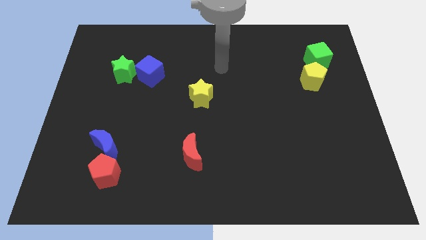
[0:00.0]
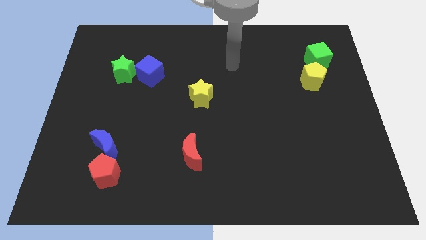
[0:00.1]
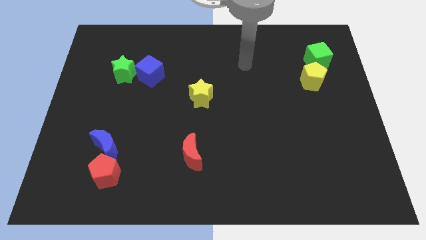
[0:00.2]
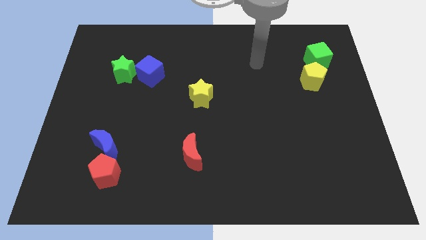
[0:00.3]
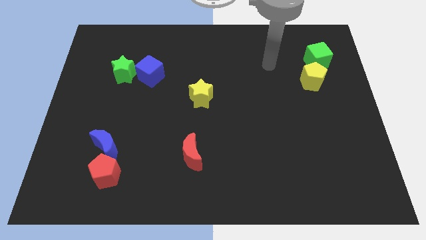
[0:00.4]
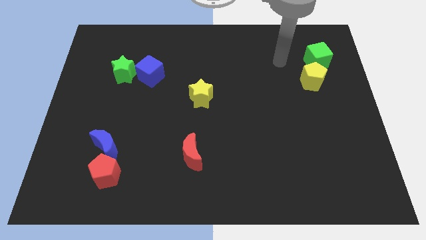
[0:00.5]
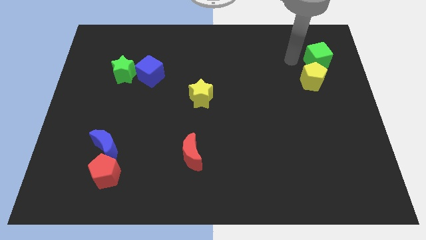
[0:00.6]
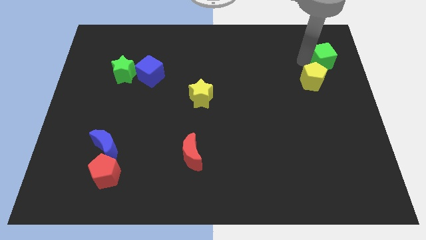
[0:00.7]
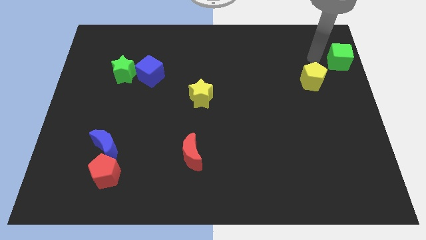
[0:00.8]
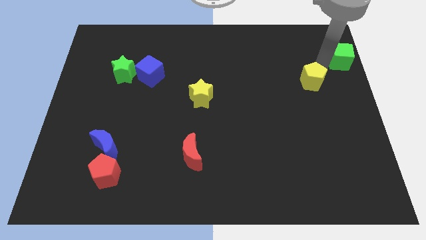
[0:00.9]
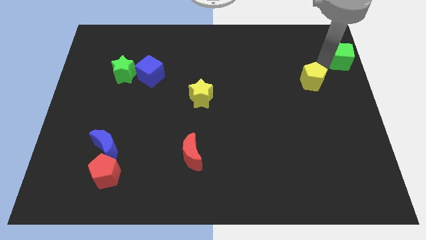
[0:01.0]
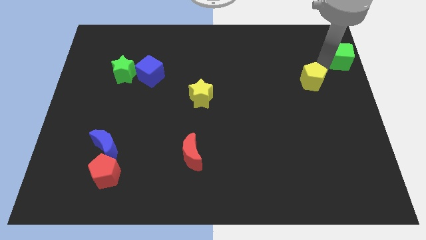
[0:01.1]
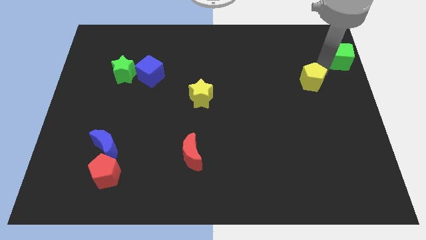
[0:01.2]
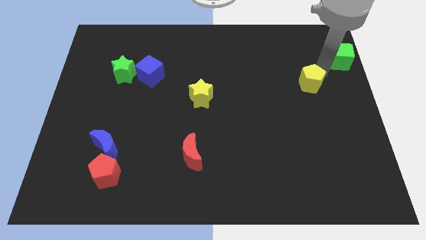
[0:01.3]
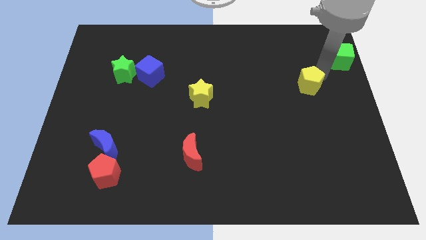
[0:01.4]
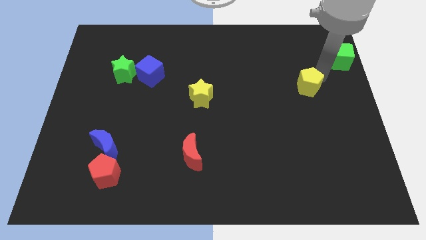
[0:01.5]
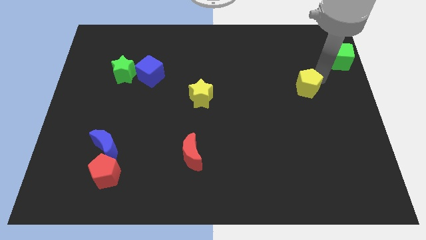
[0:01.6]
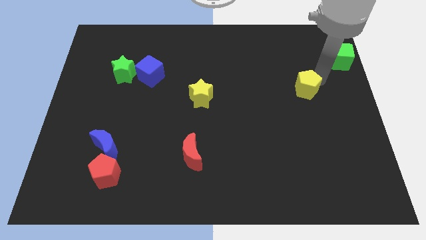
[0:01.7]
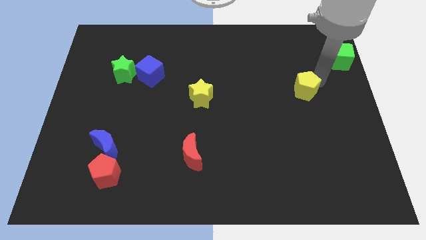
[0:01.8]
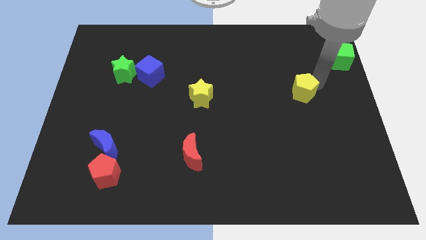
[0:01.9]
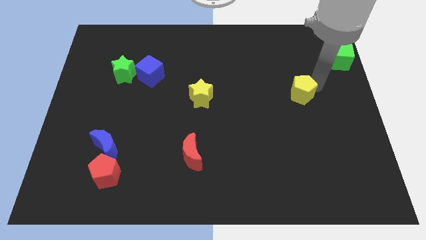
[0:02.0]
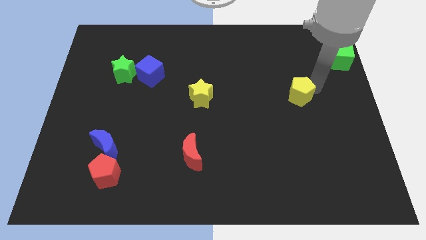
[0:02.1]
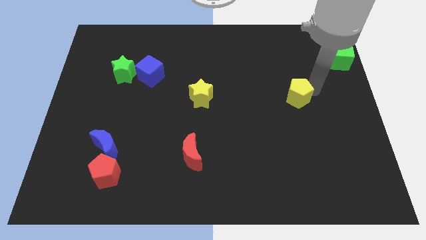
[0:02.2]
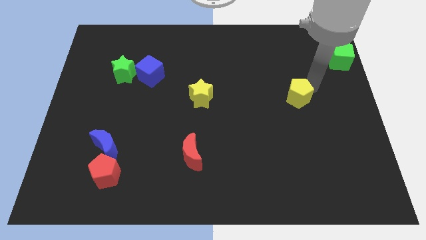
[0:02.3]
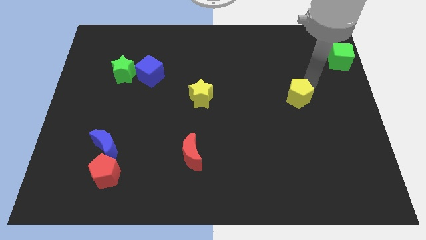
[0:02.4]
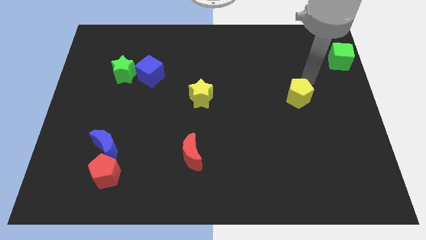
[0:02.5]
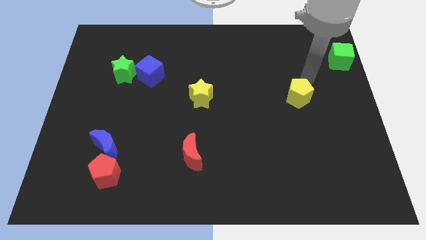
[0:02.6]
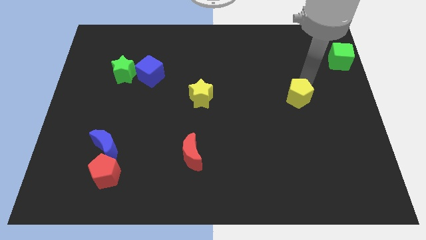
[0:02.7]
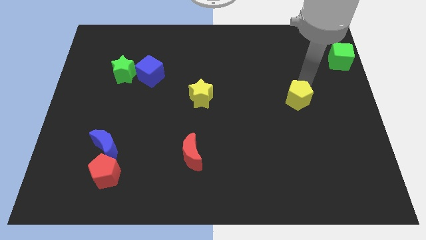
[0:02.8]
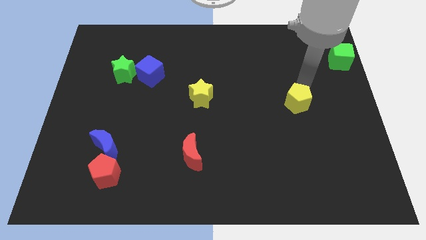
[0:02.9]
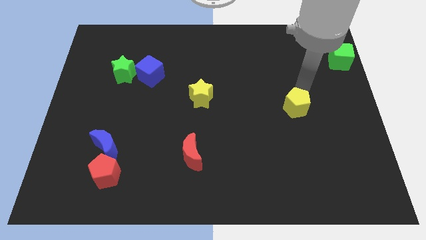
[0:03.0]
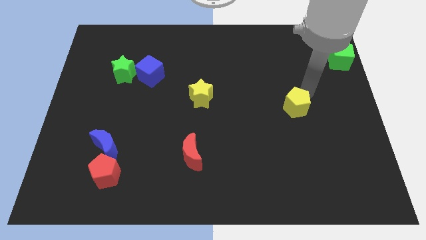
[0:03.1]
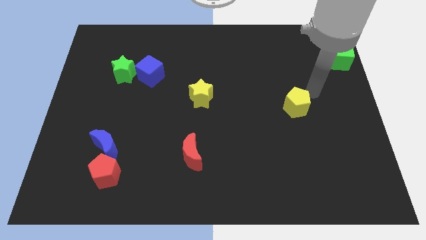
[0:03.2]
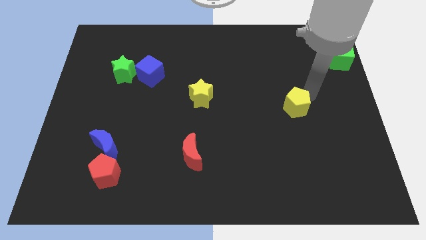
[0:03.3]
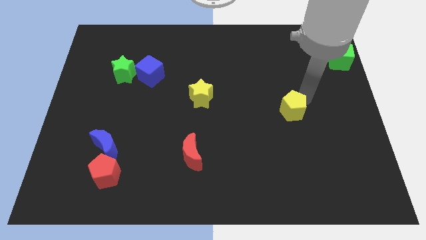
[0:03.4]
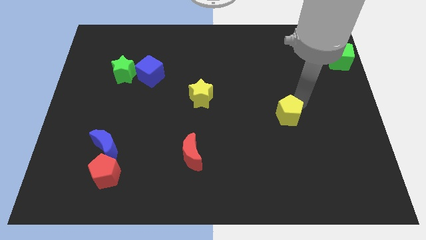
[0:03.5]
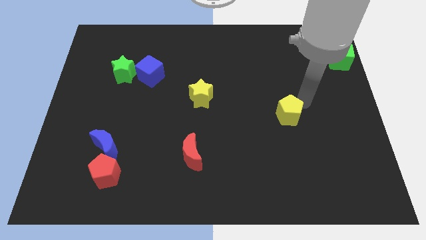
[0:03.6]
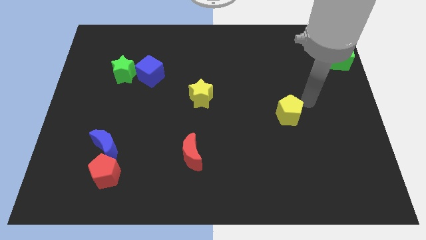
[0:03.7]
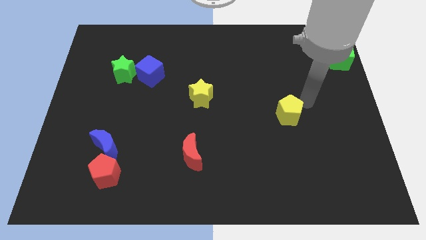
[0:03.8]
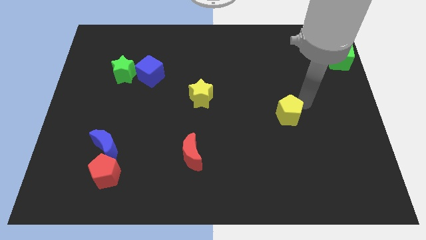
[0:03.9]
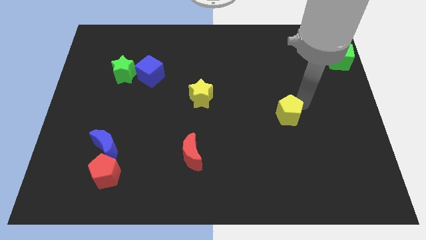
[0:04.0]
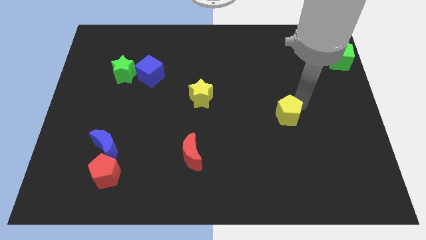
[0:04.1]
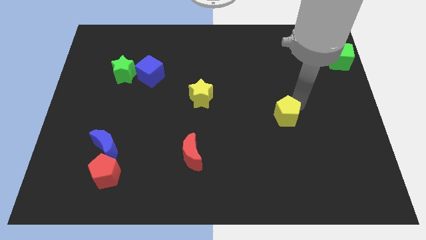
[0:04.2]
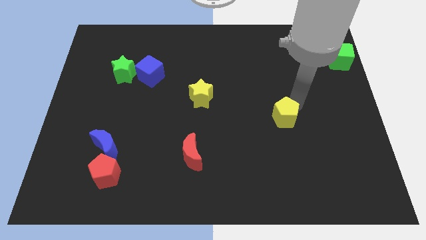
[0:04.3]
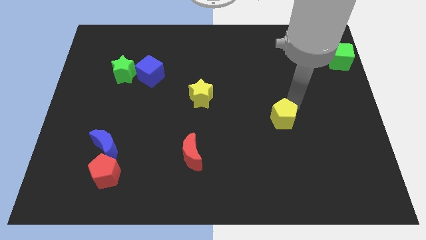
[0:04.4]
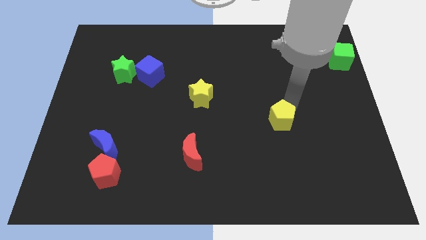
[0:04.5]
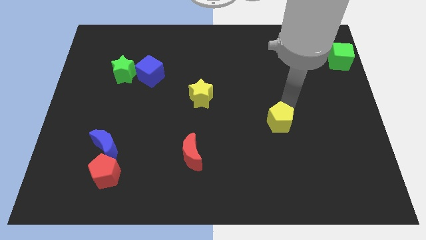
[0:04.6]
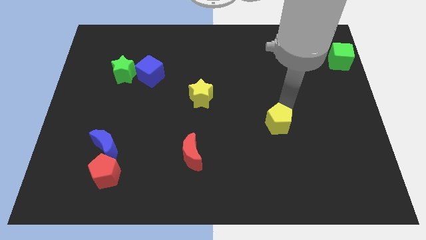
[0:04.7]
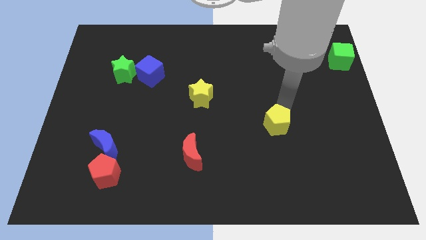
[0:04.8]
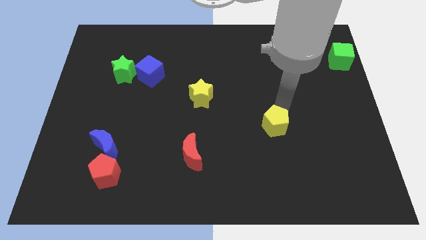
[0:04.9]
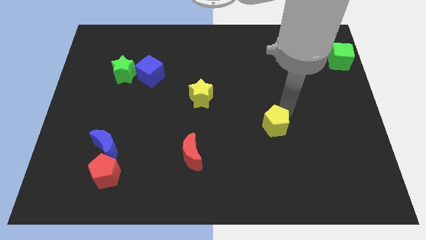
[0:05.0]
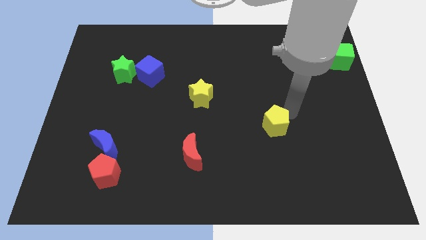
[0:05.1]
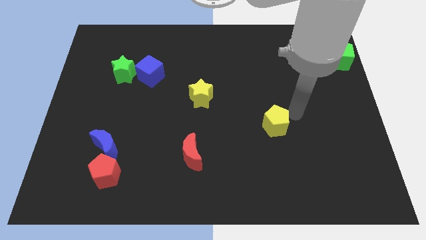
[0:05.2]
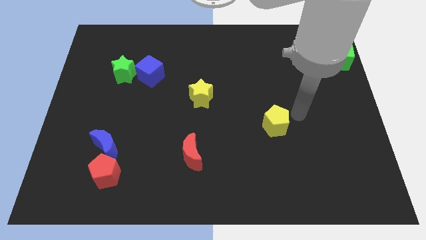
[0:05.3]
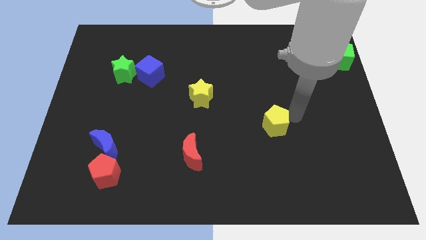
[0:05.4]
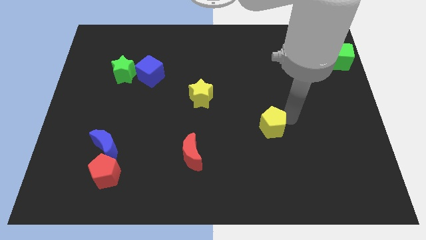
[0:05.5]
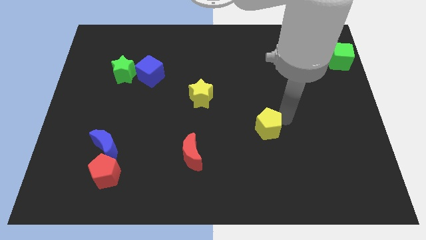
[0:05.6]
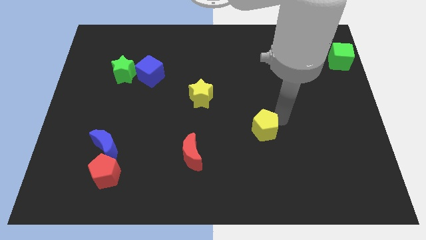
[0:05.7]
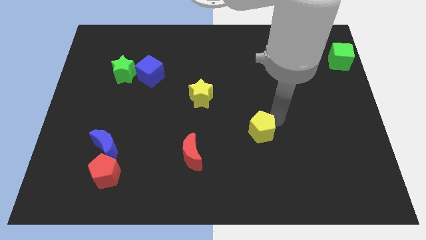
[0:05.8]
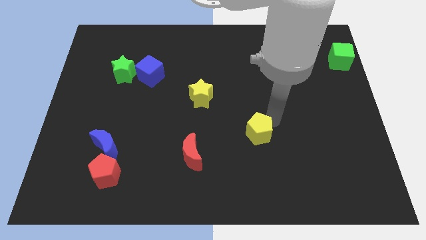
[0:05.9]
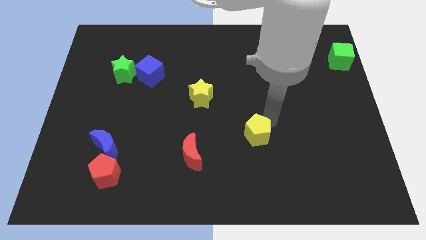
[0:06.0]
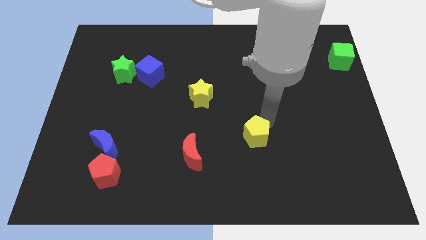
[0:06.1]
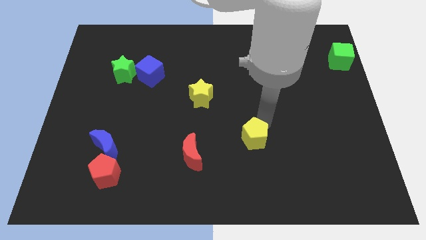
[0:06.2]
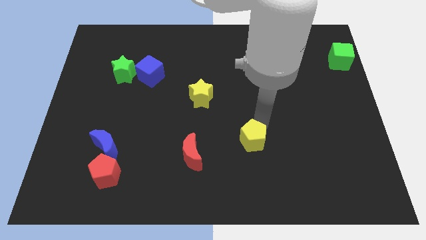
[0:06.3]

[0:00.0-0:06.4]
move the yellow pentagon just right of the red moon
